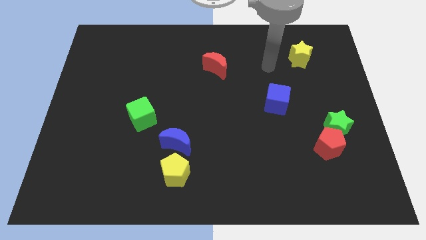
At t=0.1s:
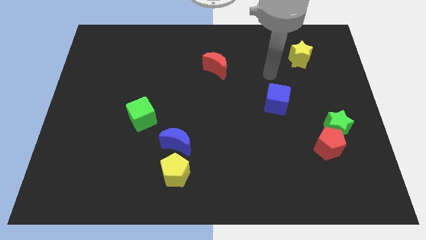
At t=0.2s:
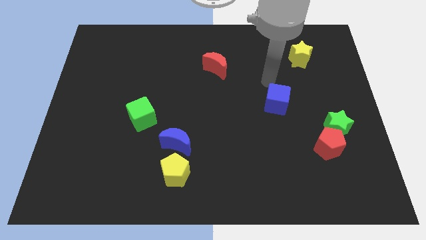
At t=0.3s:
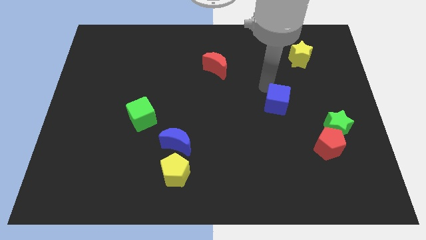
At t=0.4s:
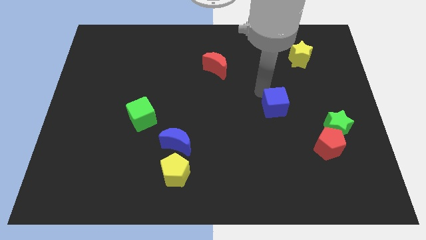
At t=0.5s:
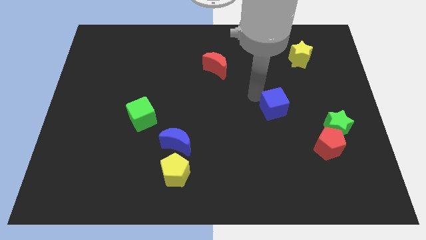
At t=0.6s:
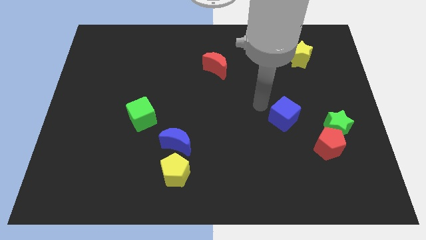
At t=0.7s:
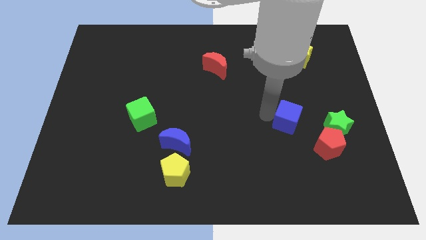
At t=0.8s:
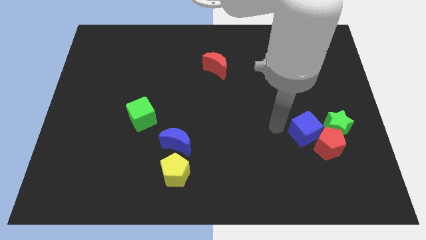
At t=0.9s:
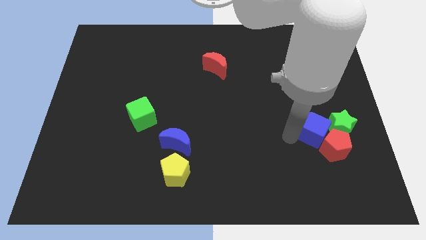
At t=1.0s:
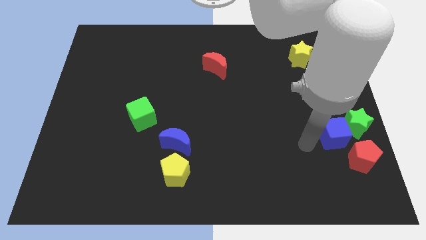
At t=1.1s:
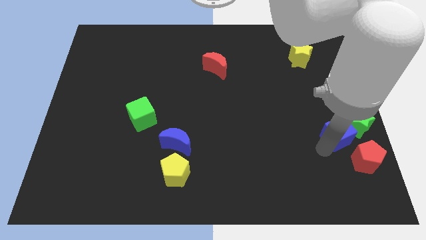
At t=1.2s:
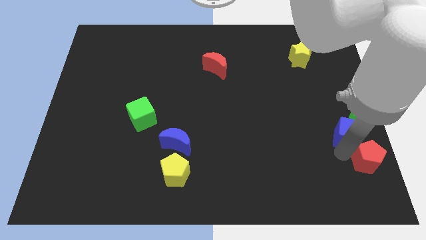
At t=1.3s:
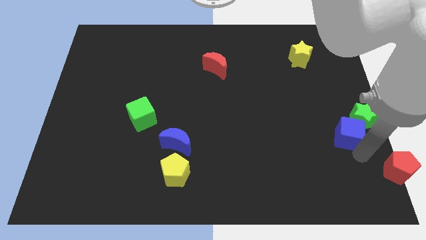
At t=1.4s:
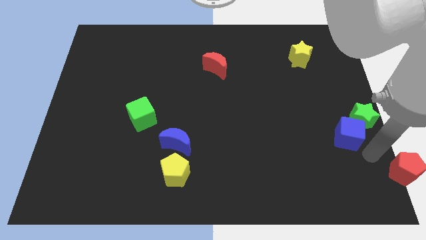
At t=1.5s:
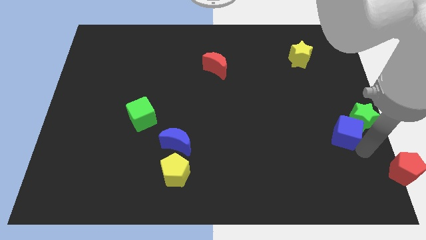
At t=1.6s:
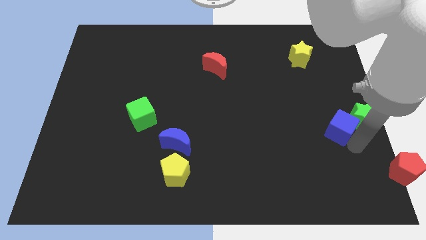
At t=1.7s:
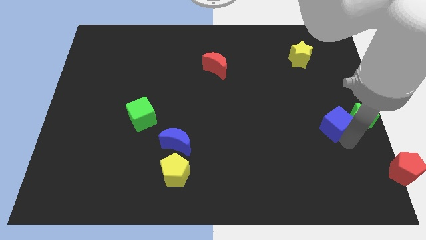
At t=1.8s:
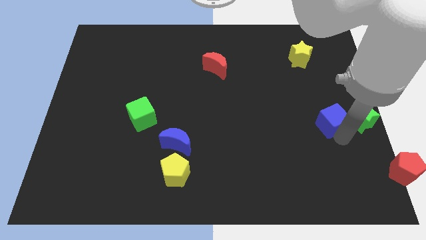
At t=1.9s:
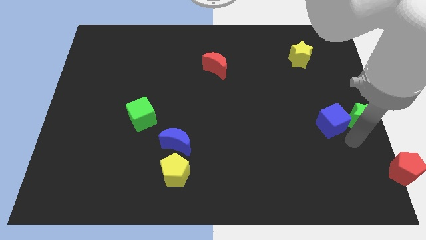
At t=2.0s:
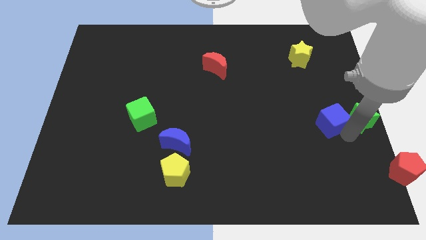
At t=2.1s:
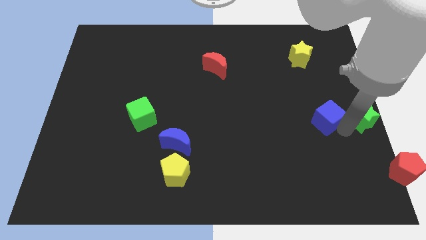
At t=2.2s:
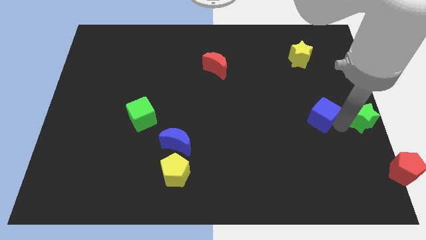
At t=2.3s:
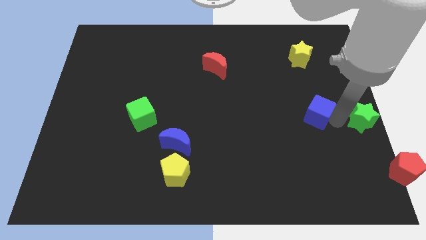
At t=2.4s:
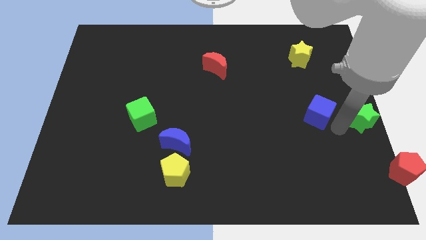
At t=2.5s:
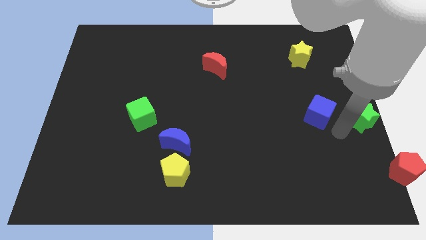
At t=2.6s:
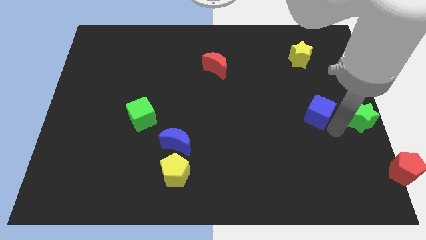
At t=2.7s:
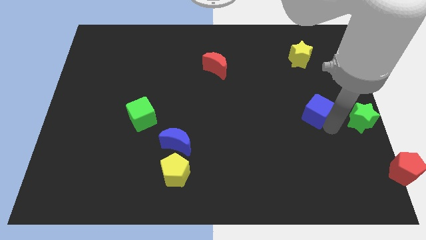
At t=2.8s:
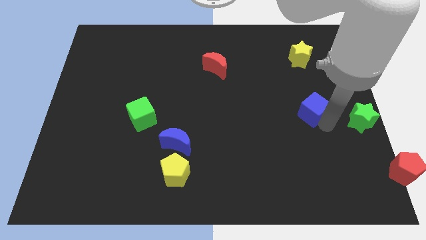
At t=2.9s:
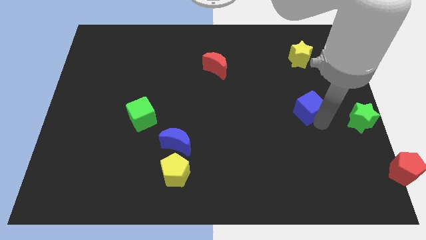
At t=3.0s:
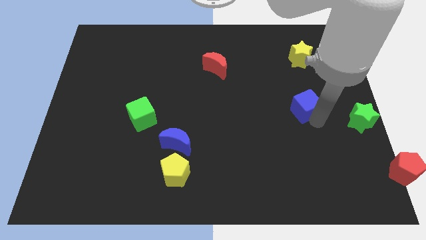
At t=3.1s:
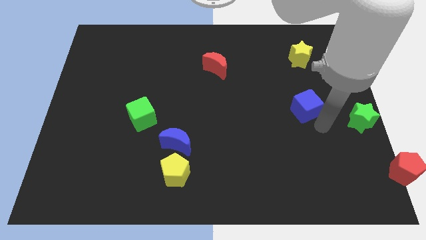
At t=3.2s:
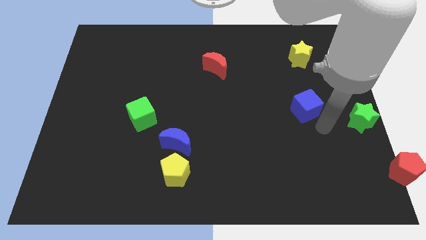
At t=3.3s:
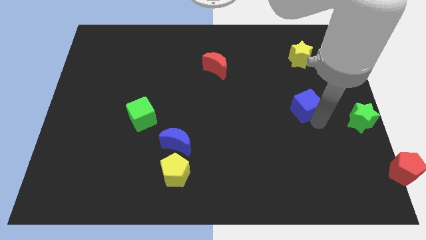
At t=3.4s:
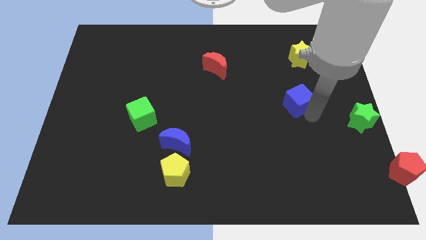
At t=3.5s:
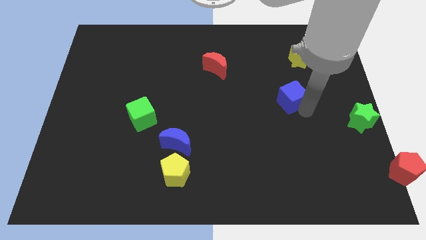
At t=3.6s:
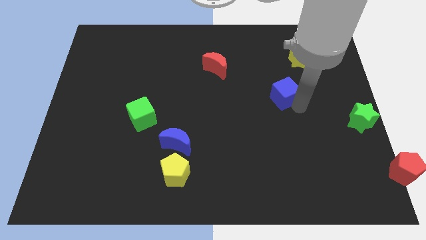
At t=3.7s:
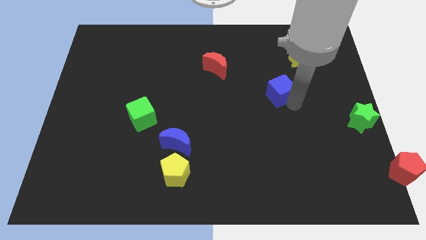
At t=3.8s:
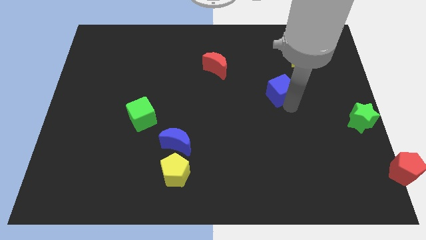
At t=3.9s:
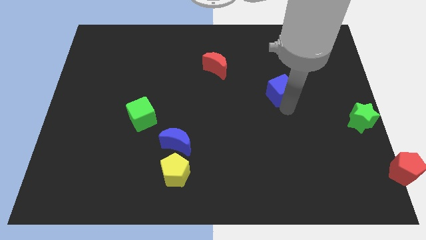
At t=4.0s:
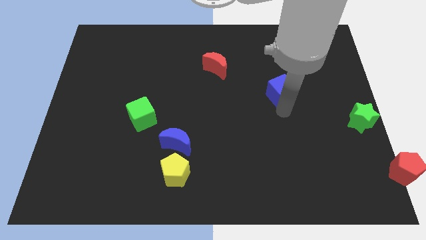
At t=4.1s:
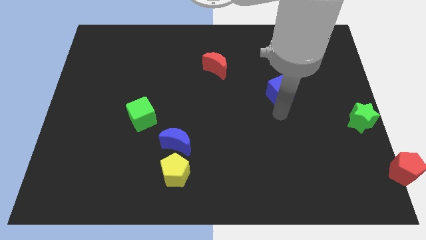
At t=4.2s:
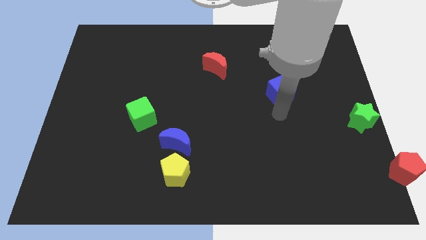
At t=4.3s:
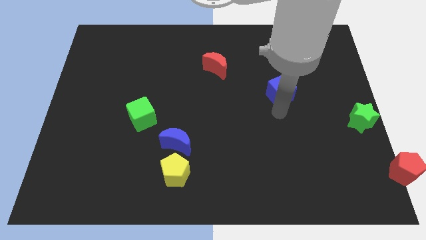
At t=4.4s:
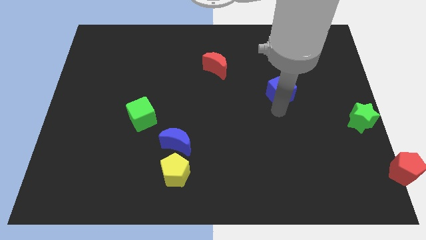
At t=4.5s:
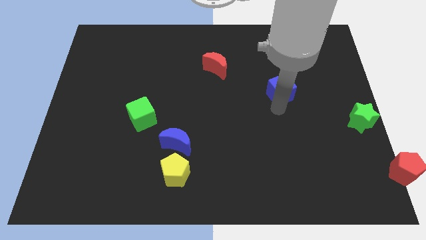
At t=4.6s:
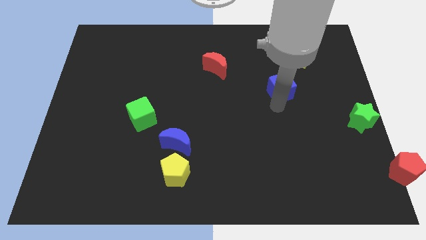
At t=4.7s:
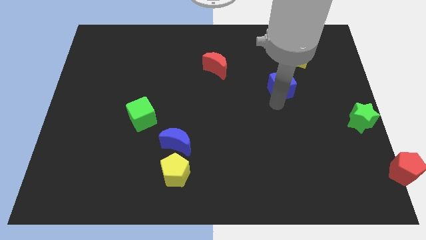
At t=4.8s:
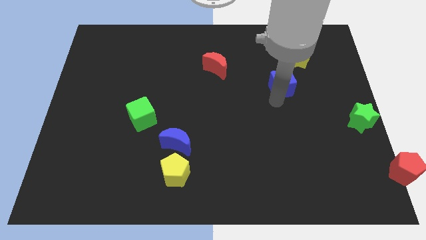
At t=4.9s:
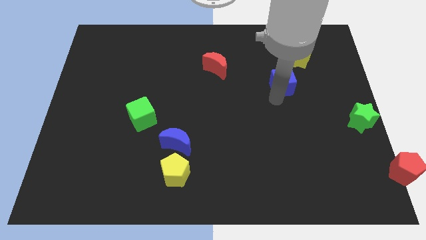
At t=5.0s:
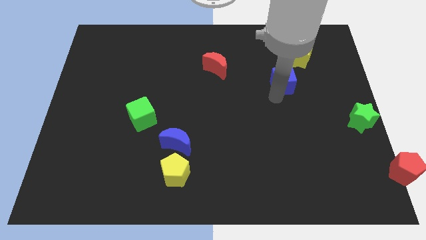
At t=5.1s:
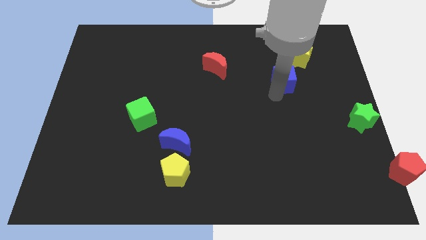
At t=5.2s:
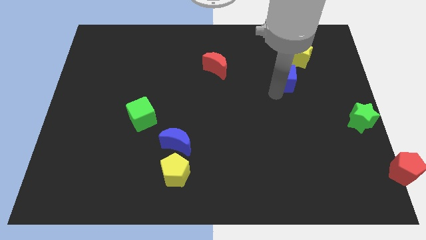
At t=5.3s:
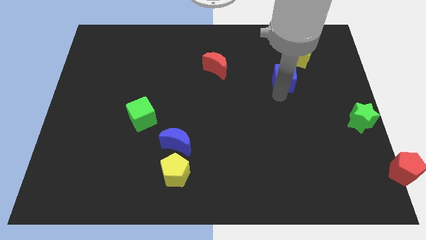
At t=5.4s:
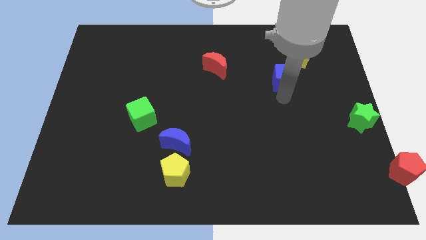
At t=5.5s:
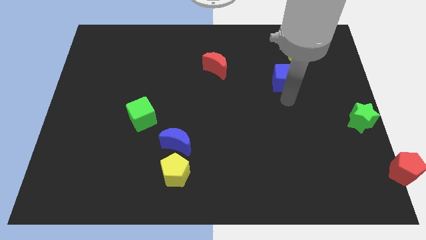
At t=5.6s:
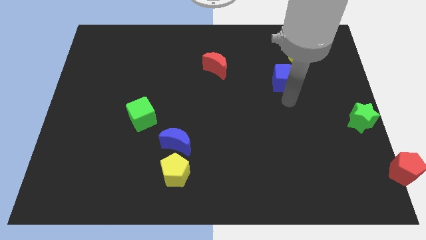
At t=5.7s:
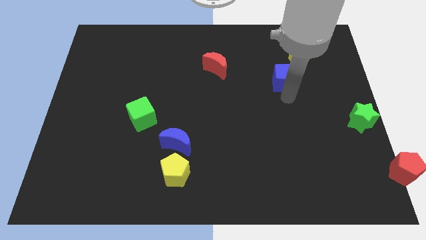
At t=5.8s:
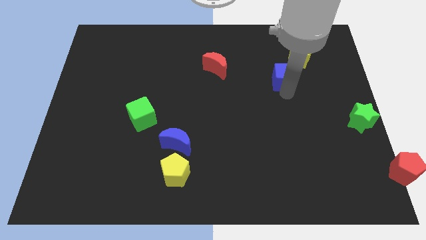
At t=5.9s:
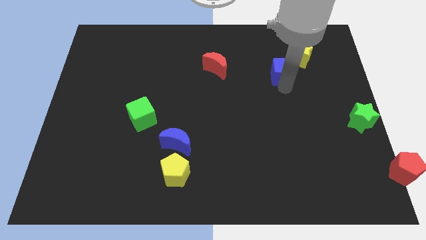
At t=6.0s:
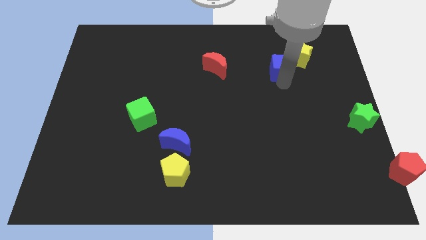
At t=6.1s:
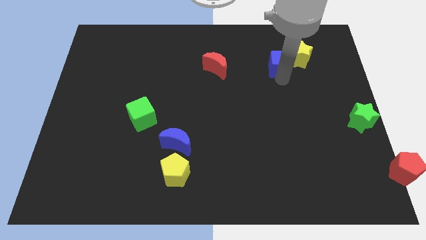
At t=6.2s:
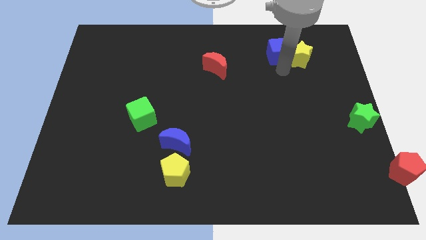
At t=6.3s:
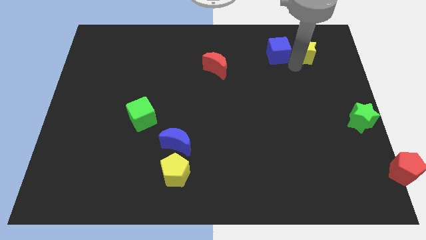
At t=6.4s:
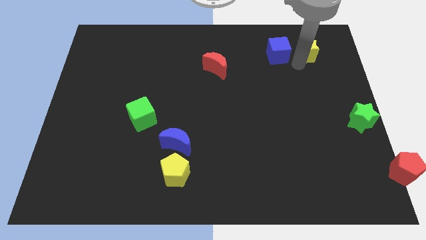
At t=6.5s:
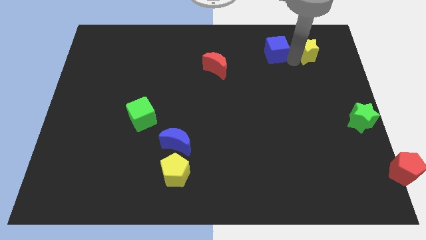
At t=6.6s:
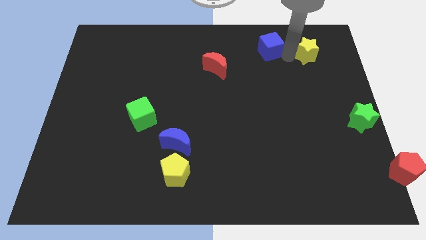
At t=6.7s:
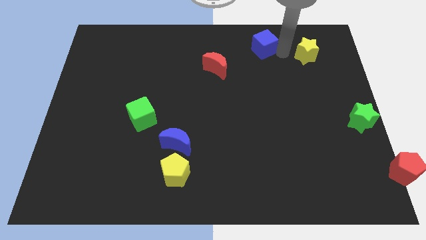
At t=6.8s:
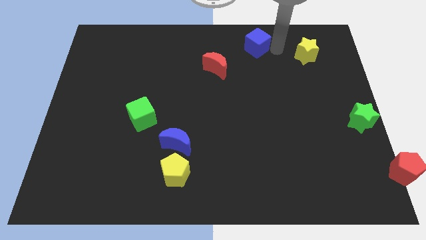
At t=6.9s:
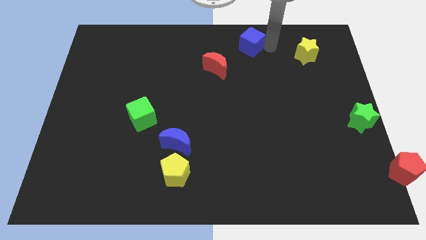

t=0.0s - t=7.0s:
push the blue cube to the top
